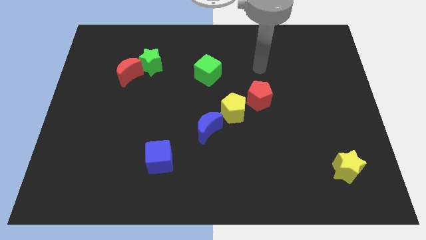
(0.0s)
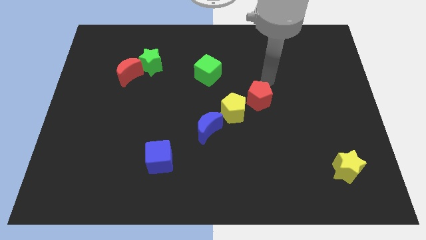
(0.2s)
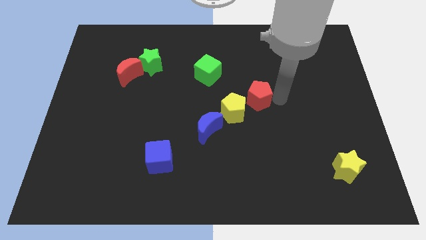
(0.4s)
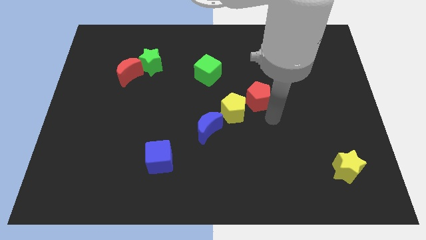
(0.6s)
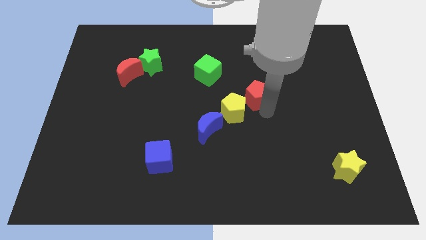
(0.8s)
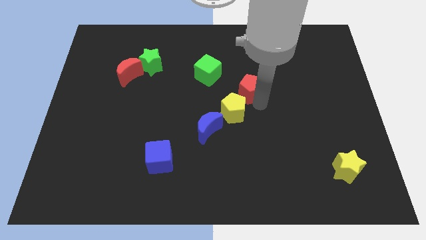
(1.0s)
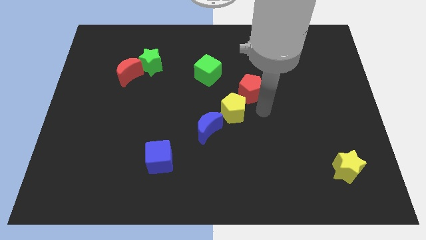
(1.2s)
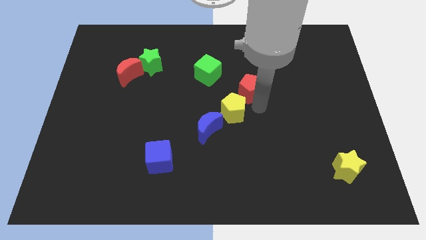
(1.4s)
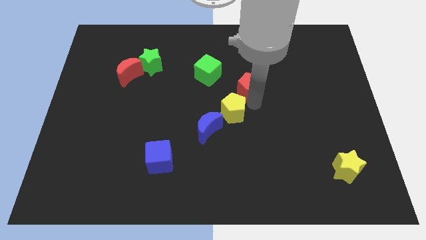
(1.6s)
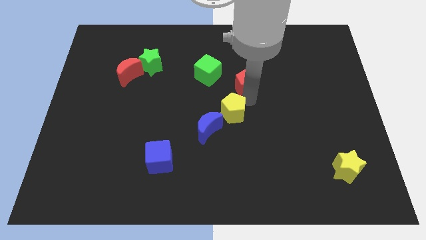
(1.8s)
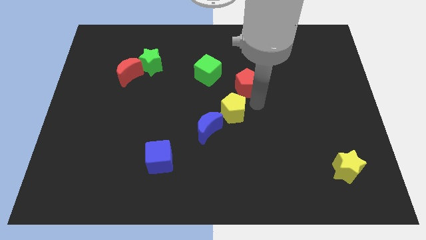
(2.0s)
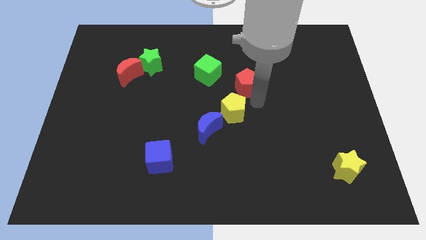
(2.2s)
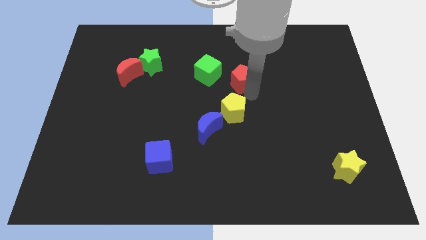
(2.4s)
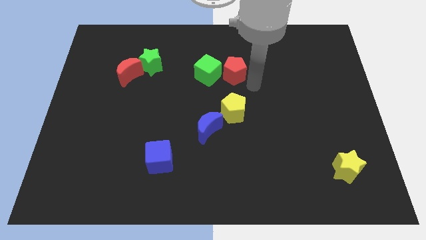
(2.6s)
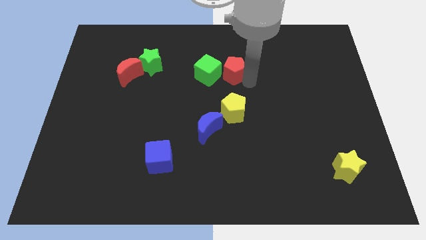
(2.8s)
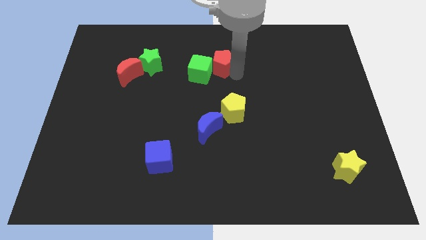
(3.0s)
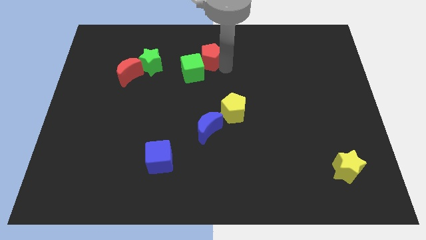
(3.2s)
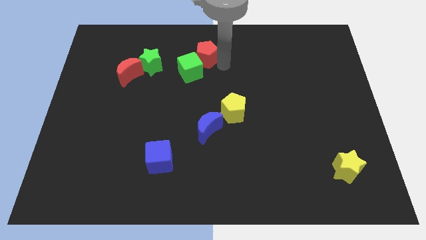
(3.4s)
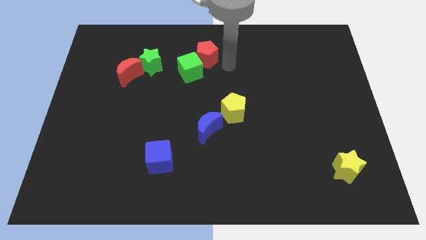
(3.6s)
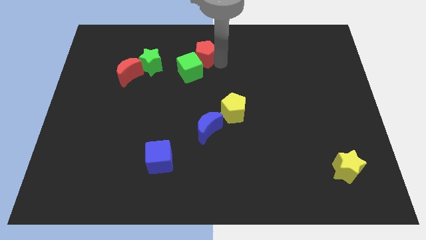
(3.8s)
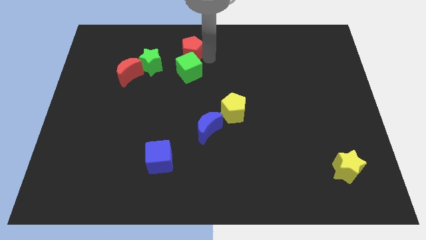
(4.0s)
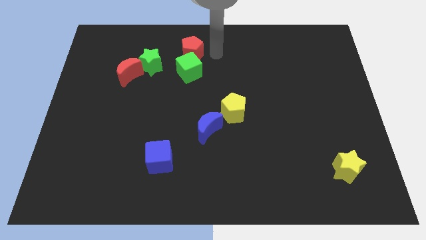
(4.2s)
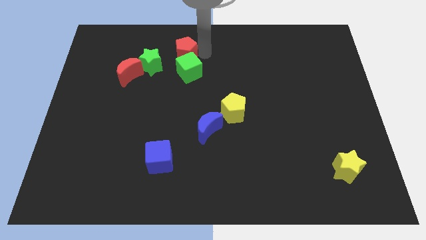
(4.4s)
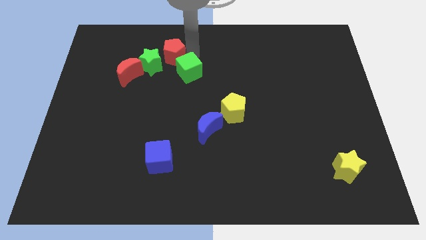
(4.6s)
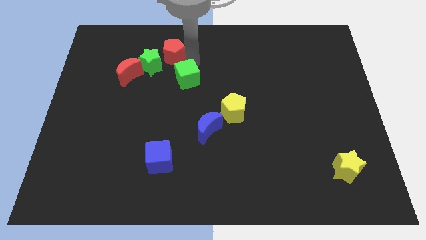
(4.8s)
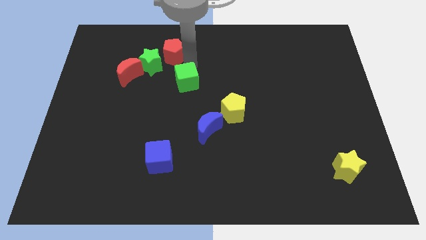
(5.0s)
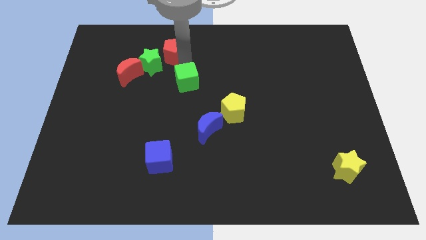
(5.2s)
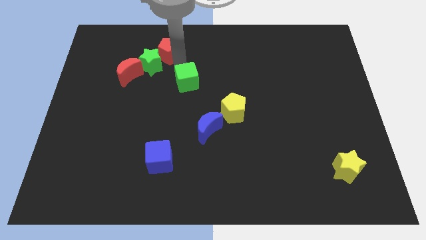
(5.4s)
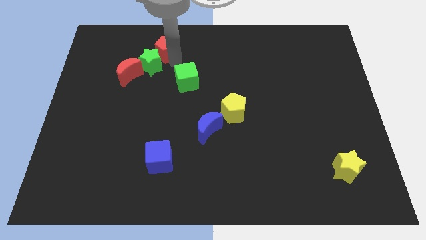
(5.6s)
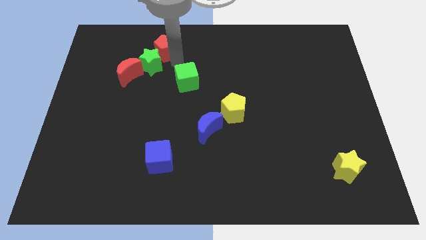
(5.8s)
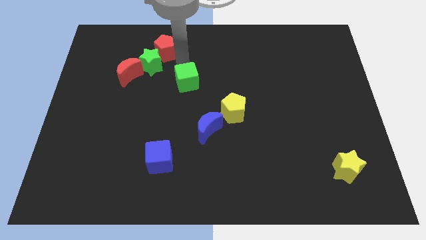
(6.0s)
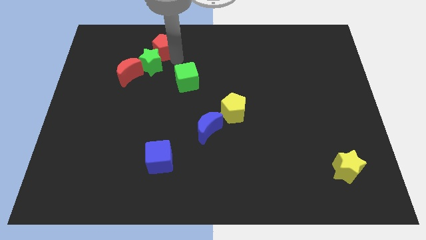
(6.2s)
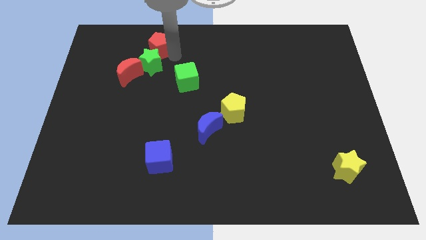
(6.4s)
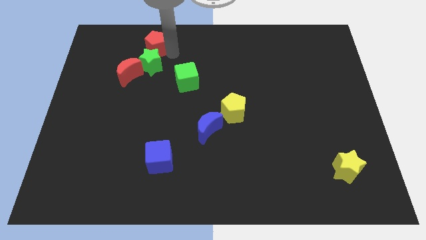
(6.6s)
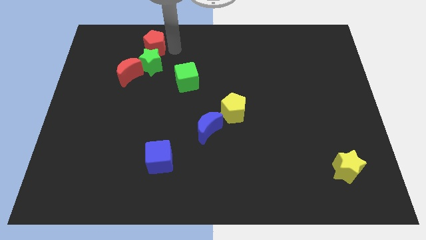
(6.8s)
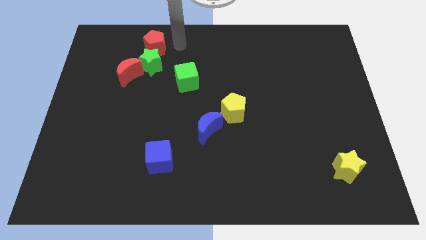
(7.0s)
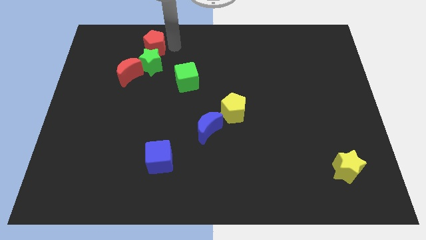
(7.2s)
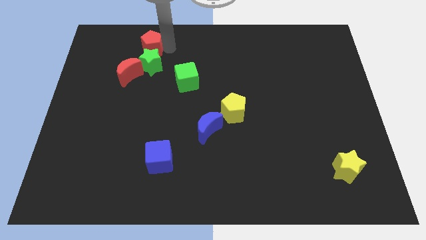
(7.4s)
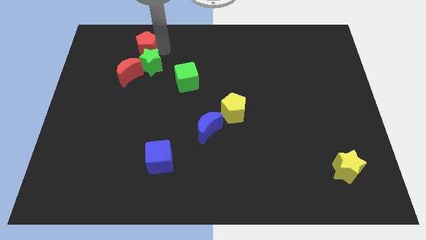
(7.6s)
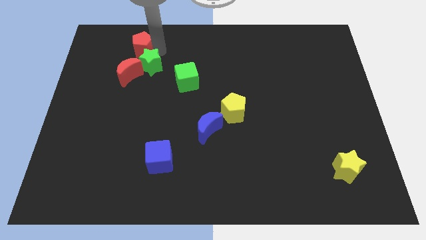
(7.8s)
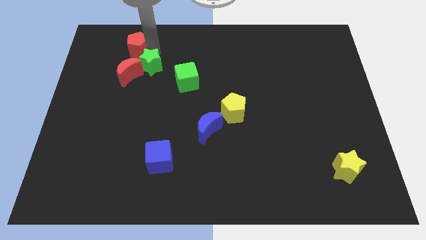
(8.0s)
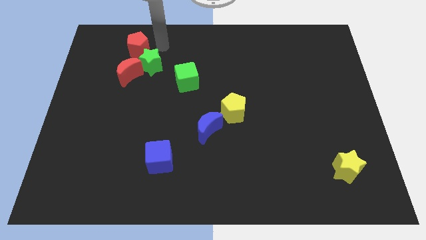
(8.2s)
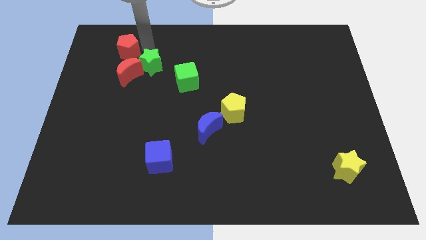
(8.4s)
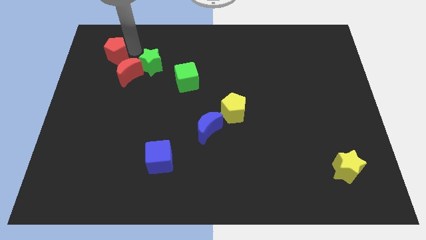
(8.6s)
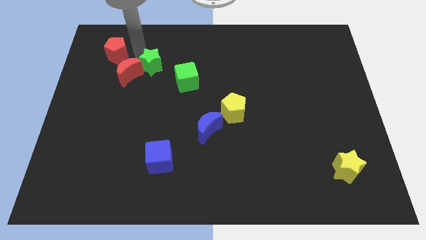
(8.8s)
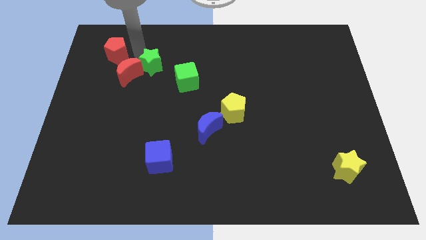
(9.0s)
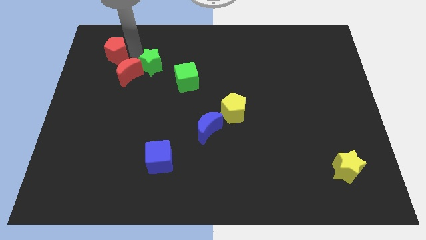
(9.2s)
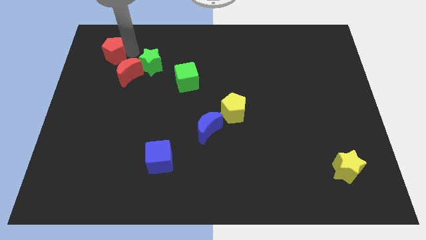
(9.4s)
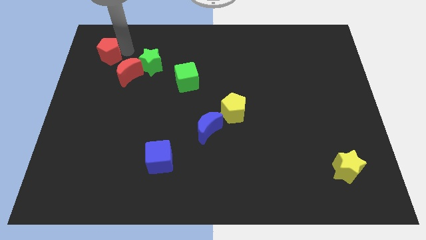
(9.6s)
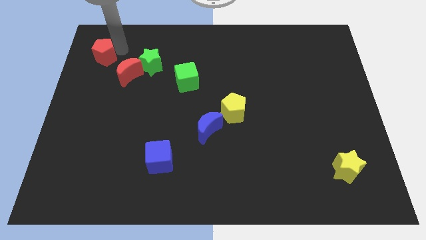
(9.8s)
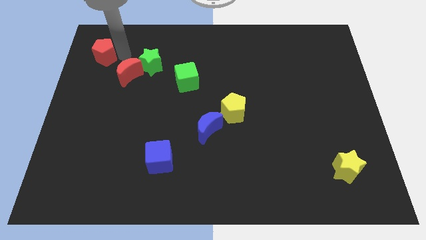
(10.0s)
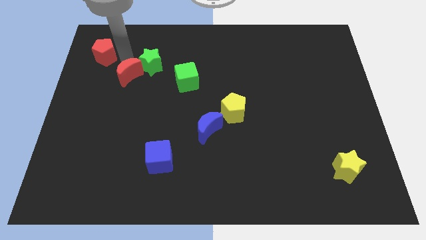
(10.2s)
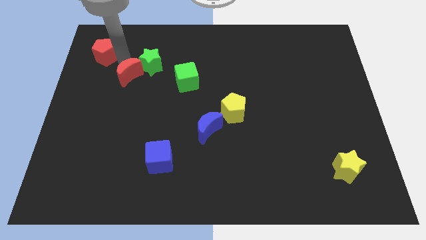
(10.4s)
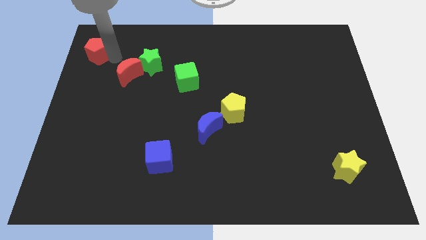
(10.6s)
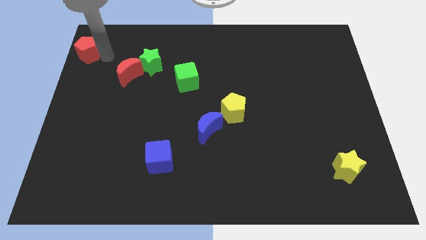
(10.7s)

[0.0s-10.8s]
push the red pentagon to the top left of the board

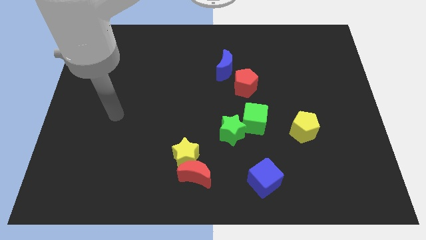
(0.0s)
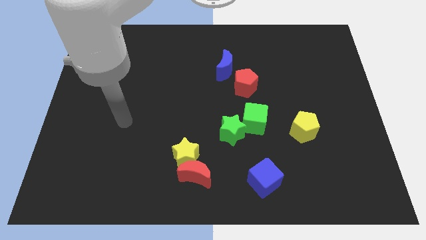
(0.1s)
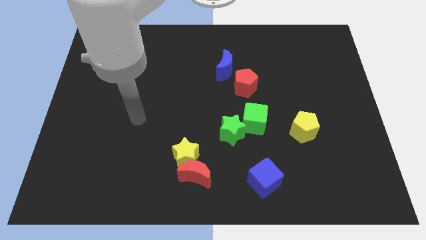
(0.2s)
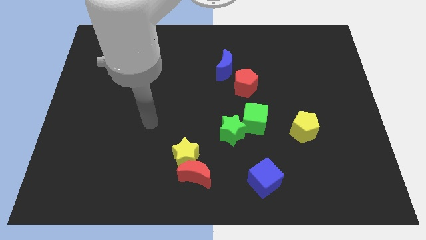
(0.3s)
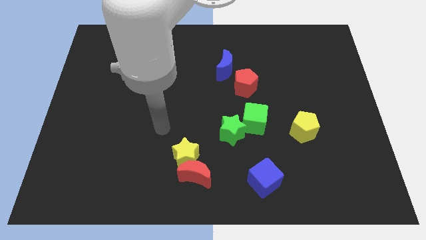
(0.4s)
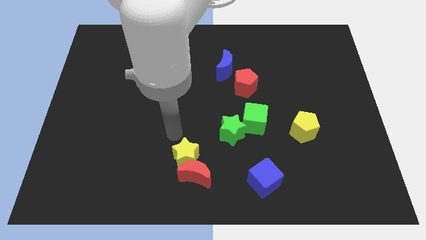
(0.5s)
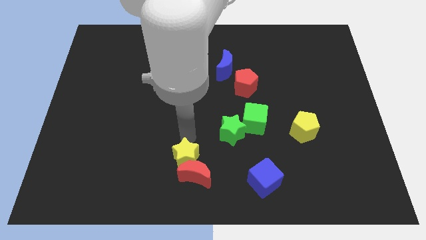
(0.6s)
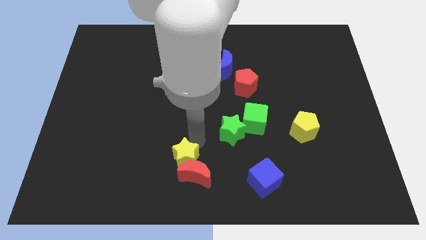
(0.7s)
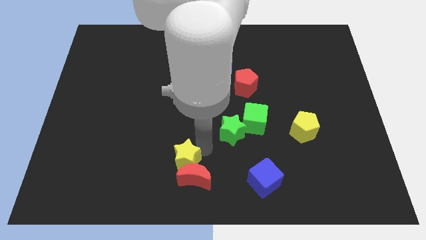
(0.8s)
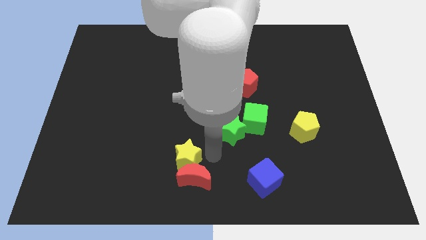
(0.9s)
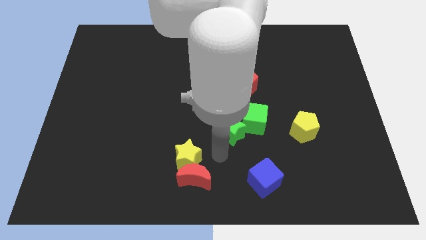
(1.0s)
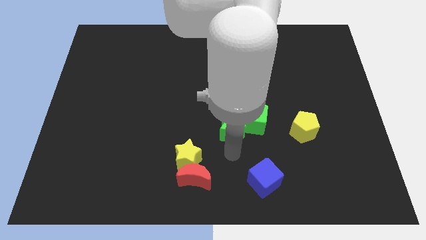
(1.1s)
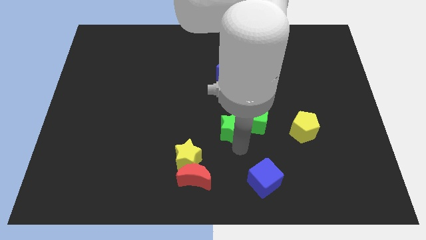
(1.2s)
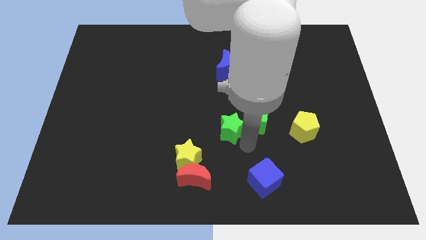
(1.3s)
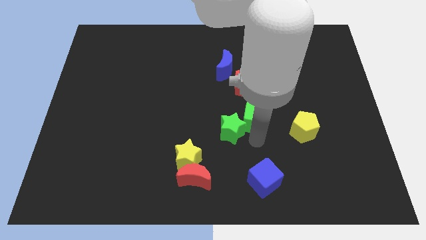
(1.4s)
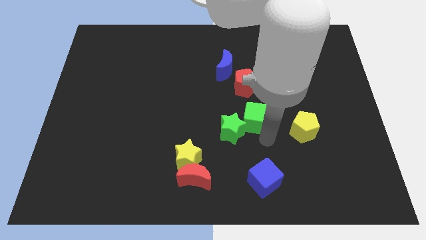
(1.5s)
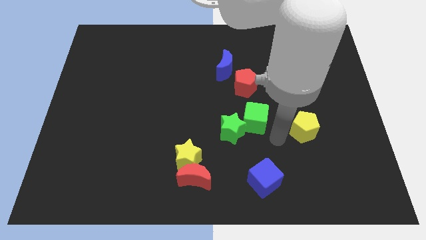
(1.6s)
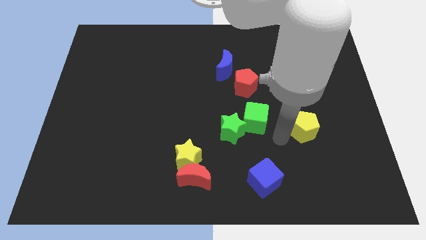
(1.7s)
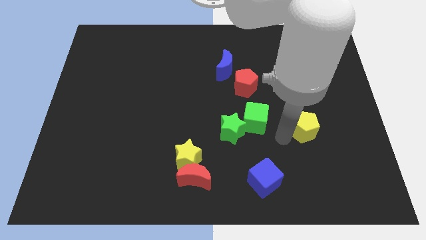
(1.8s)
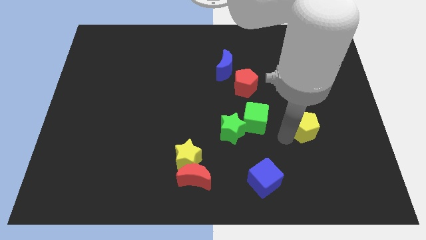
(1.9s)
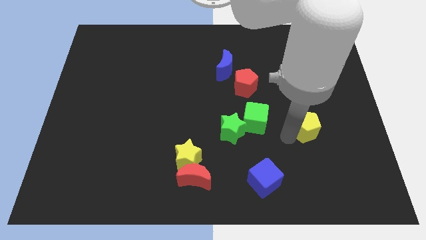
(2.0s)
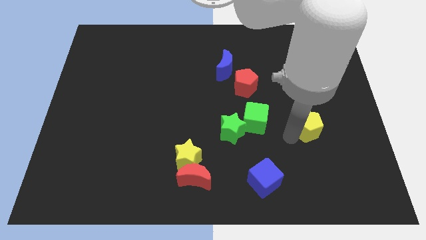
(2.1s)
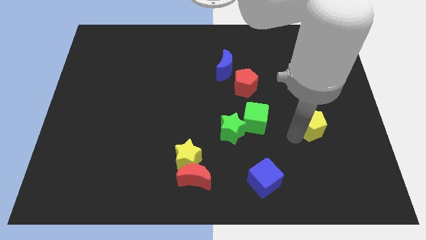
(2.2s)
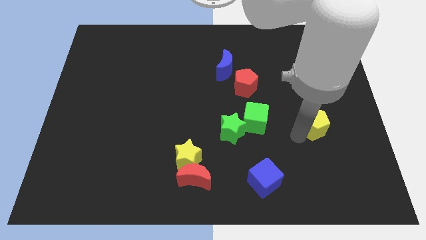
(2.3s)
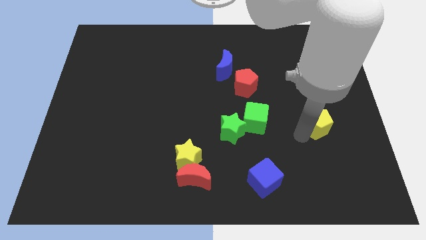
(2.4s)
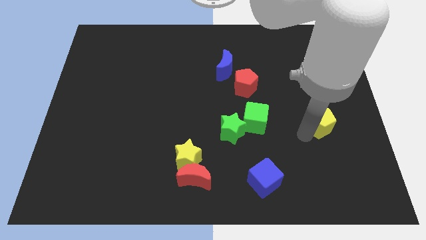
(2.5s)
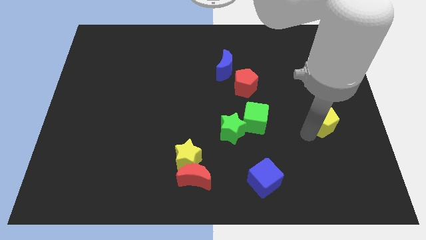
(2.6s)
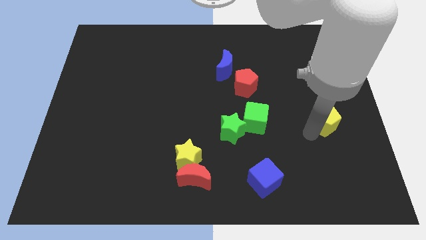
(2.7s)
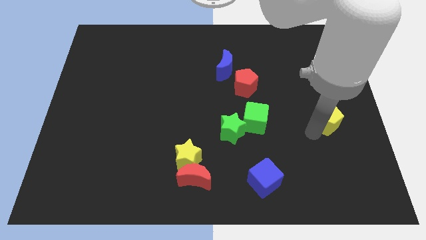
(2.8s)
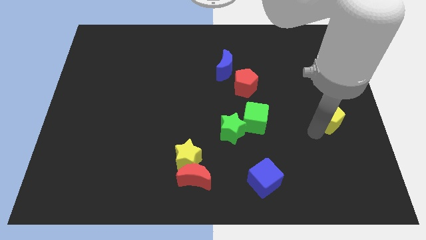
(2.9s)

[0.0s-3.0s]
put the yellow pentagon to the center right
